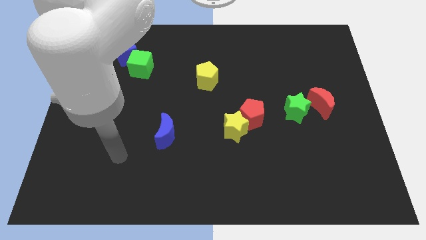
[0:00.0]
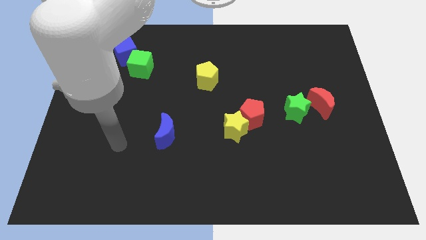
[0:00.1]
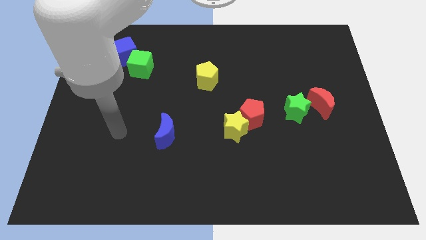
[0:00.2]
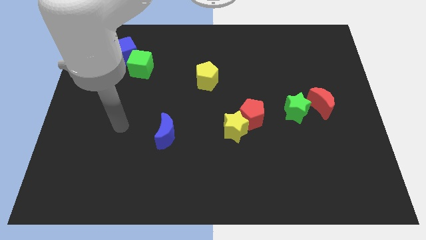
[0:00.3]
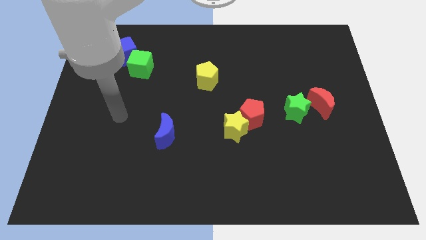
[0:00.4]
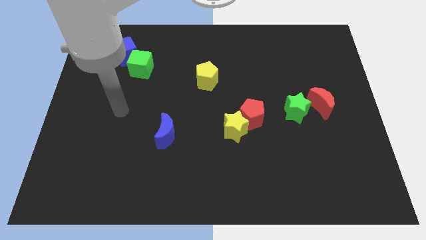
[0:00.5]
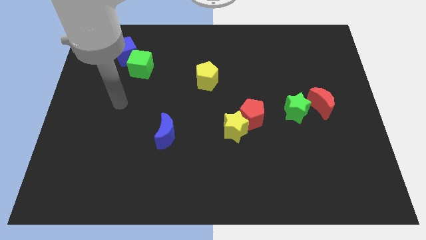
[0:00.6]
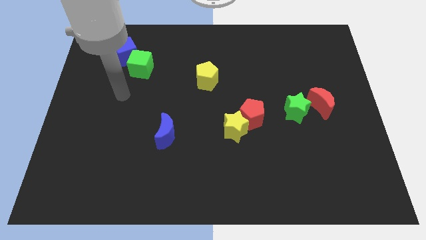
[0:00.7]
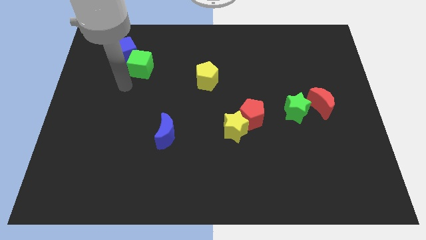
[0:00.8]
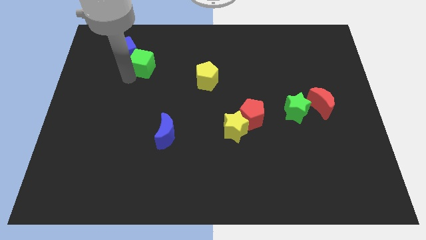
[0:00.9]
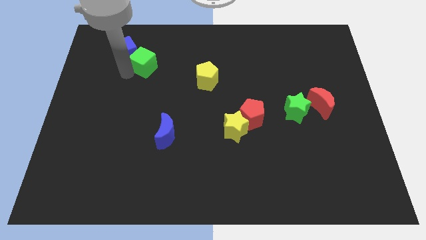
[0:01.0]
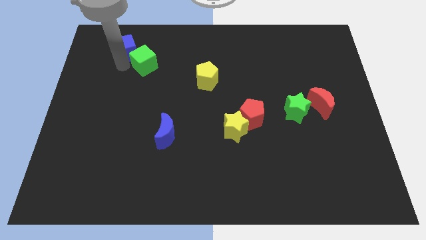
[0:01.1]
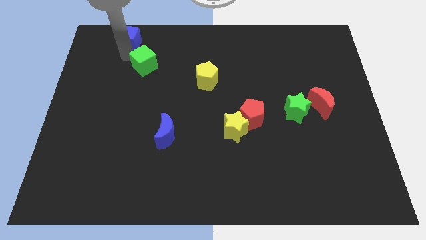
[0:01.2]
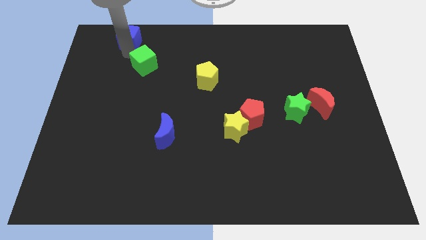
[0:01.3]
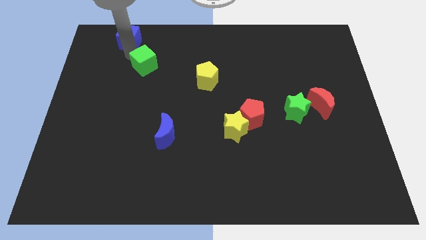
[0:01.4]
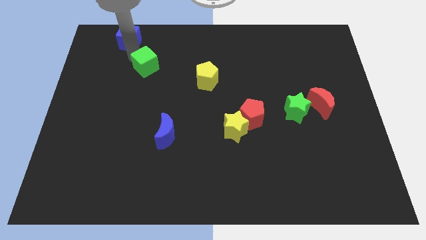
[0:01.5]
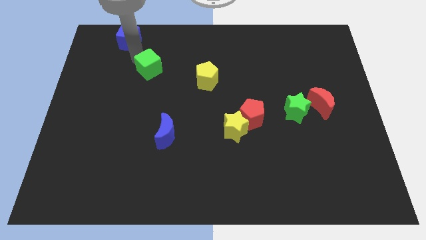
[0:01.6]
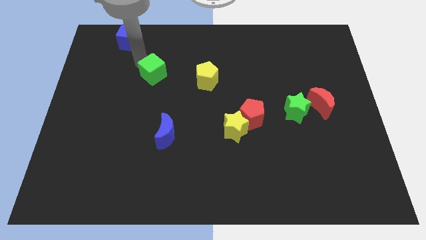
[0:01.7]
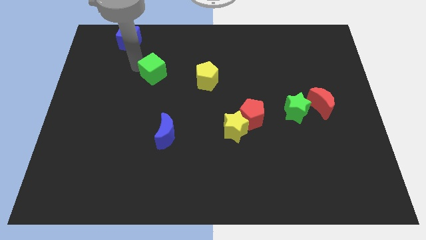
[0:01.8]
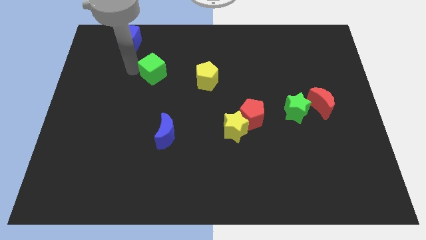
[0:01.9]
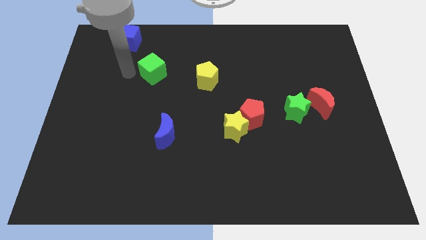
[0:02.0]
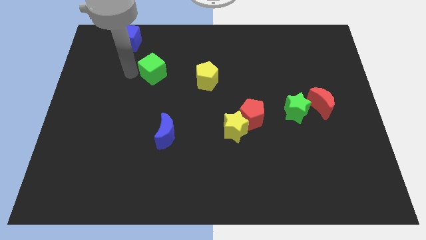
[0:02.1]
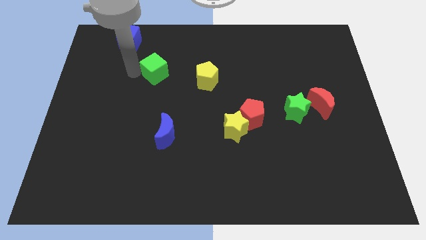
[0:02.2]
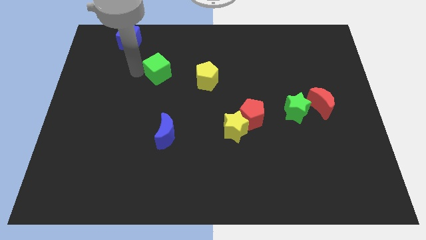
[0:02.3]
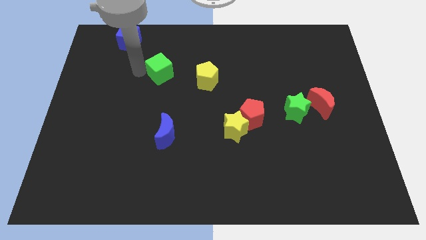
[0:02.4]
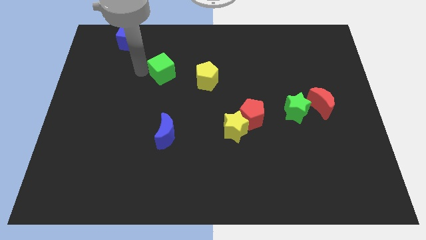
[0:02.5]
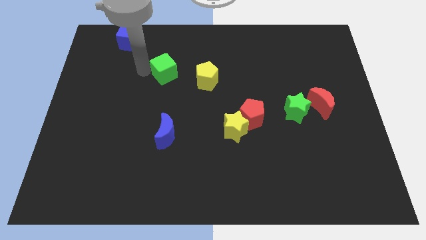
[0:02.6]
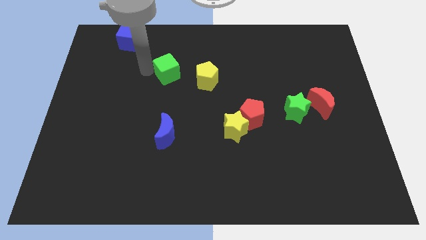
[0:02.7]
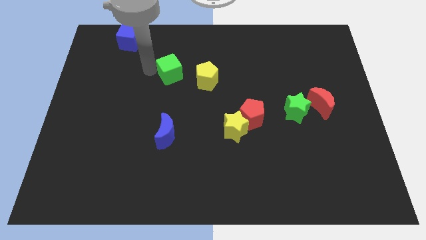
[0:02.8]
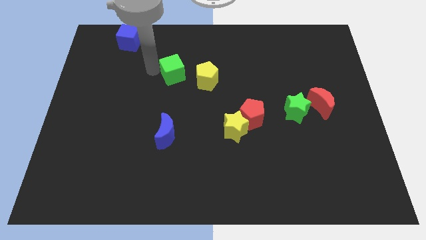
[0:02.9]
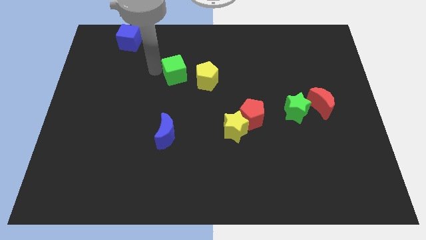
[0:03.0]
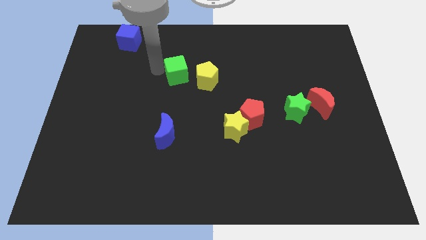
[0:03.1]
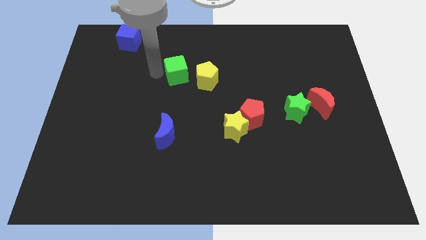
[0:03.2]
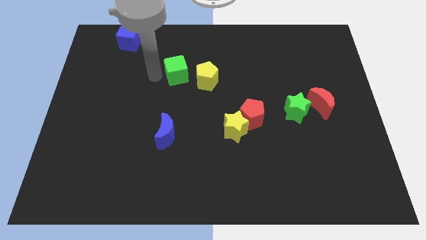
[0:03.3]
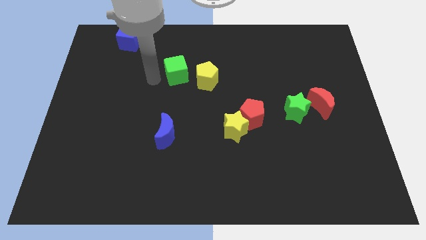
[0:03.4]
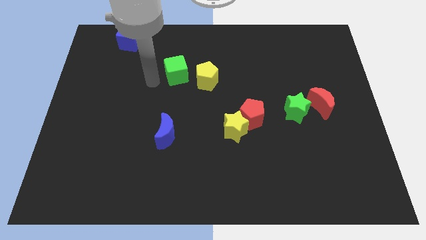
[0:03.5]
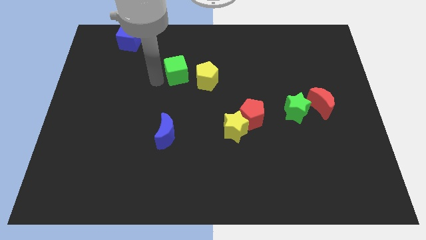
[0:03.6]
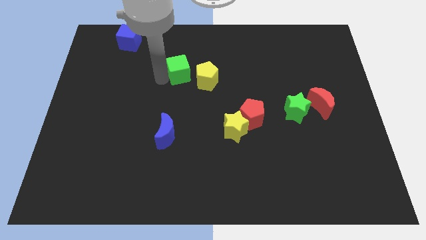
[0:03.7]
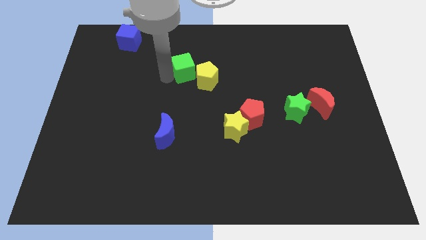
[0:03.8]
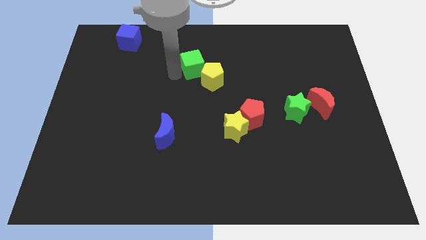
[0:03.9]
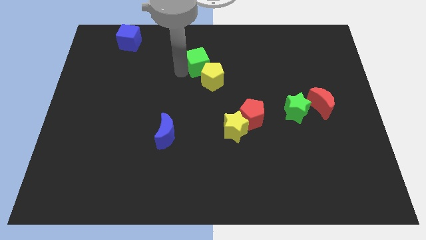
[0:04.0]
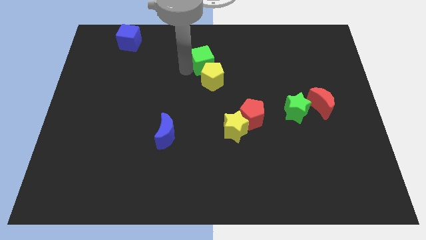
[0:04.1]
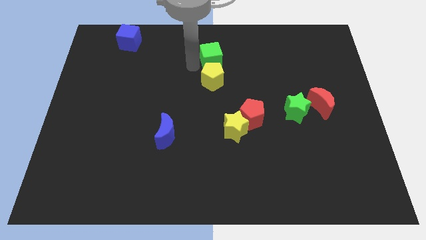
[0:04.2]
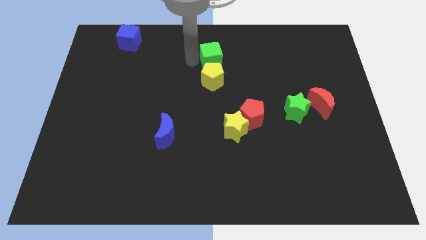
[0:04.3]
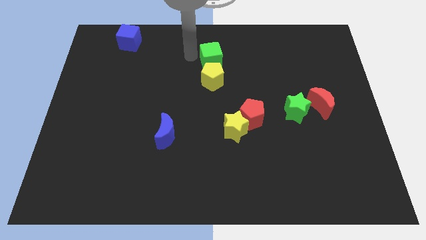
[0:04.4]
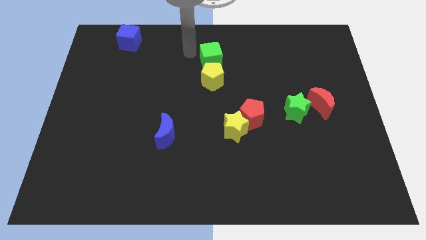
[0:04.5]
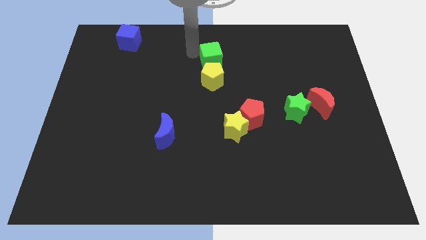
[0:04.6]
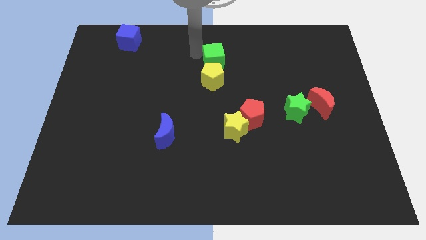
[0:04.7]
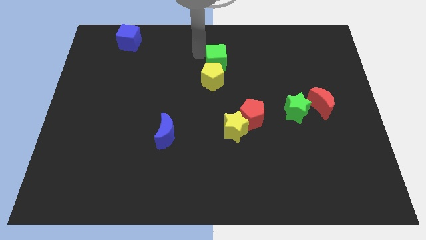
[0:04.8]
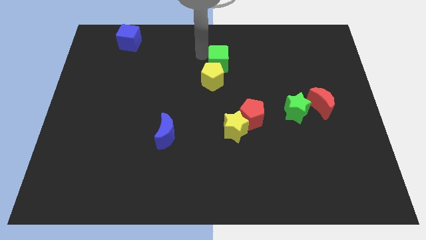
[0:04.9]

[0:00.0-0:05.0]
slide the green cube to the right

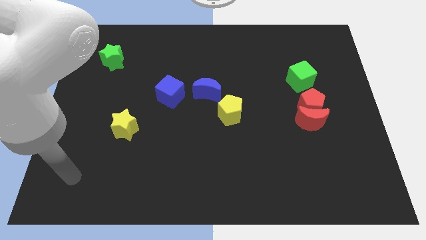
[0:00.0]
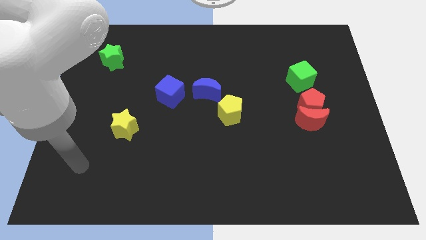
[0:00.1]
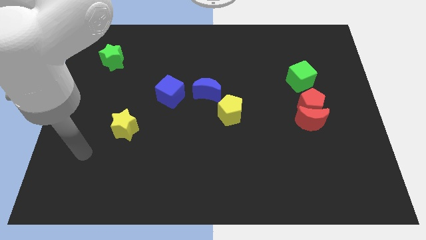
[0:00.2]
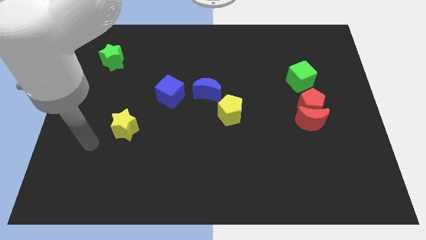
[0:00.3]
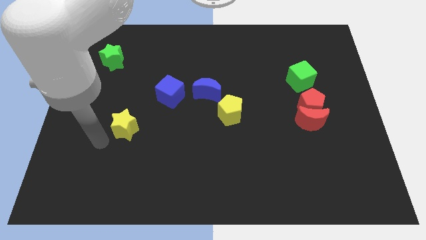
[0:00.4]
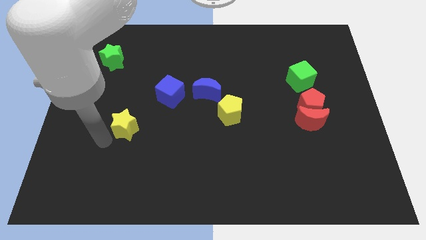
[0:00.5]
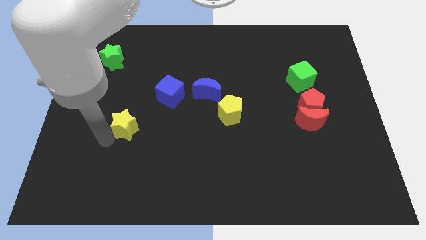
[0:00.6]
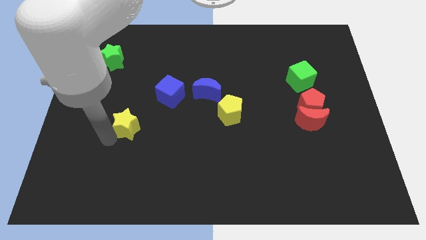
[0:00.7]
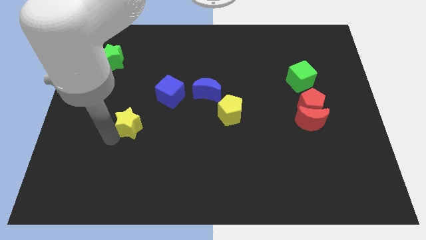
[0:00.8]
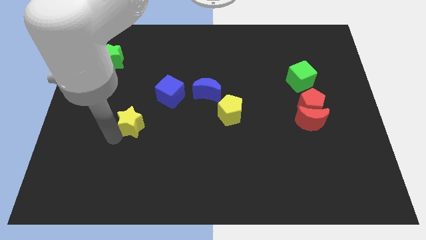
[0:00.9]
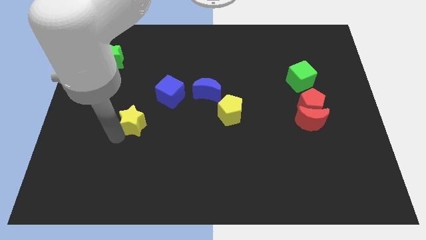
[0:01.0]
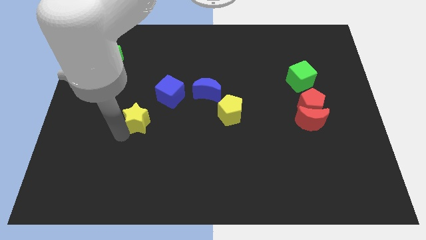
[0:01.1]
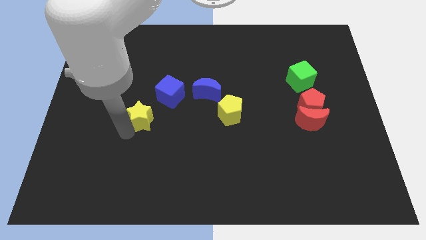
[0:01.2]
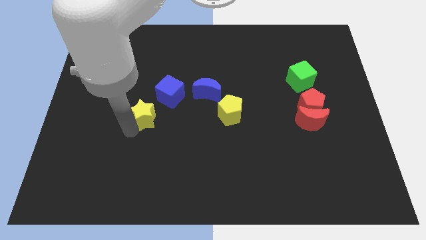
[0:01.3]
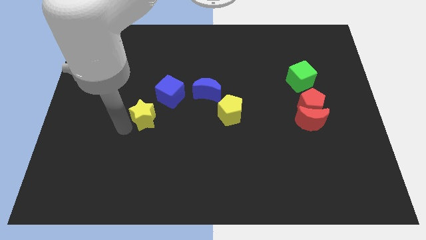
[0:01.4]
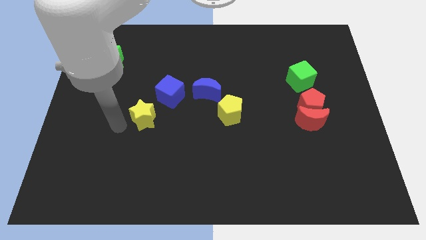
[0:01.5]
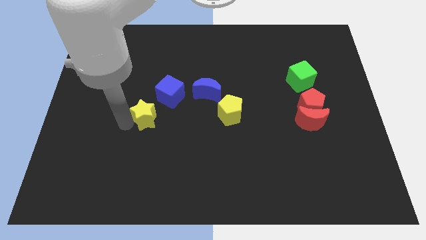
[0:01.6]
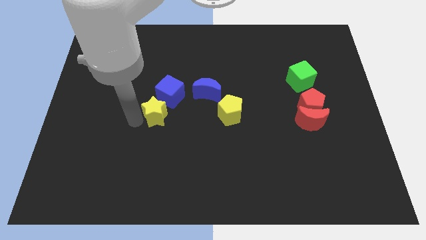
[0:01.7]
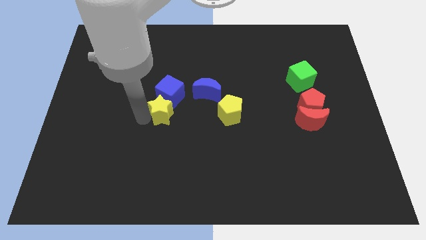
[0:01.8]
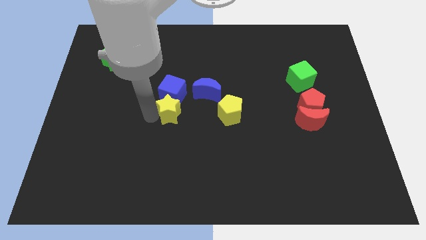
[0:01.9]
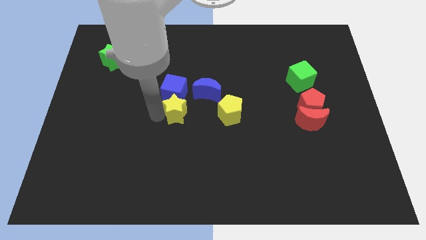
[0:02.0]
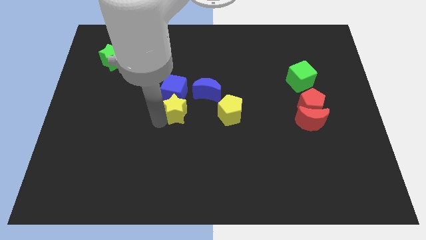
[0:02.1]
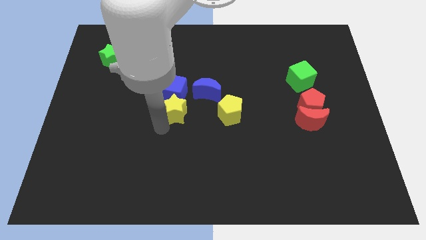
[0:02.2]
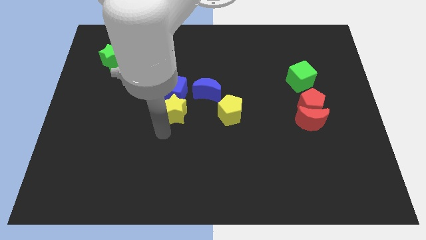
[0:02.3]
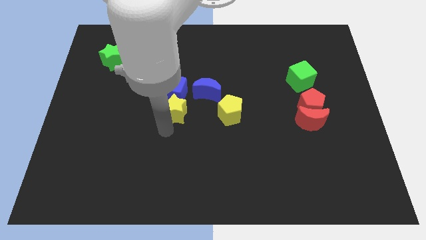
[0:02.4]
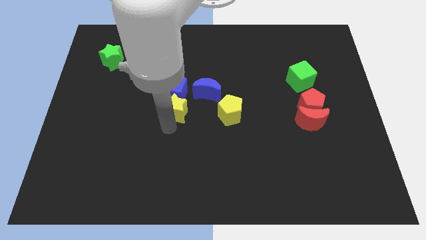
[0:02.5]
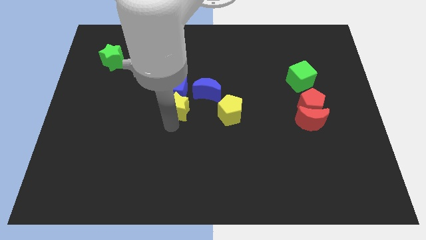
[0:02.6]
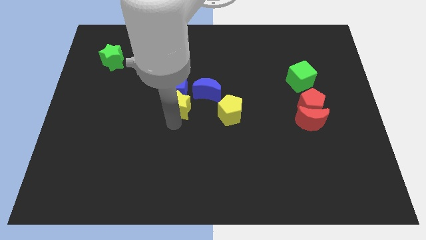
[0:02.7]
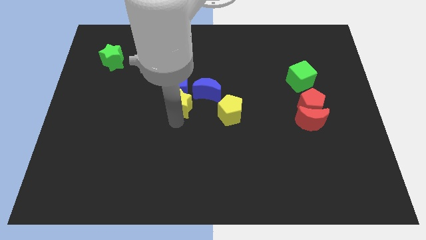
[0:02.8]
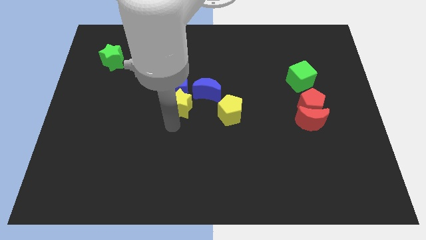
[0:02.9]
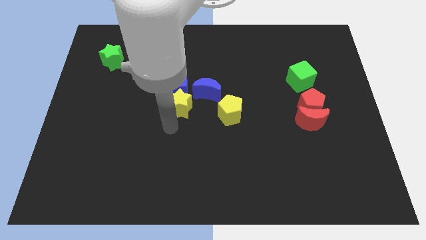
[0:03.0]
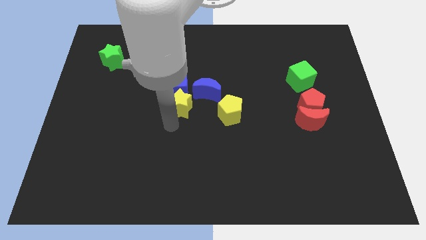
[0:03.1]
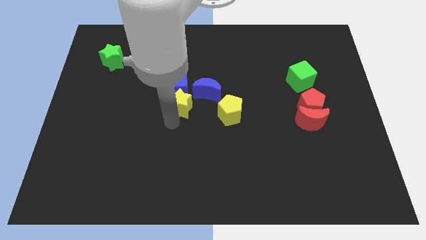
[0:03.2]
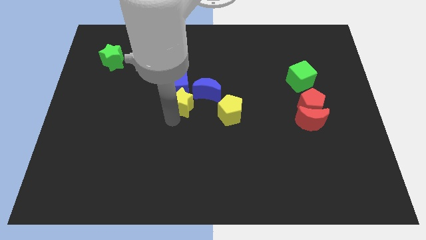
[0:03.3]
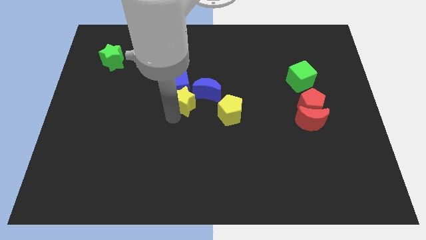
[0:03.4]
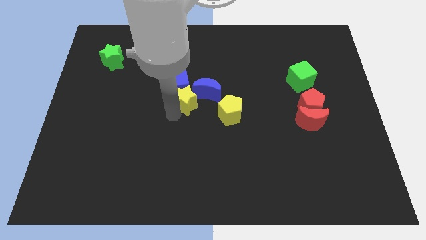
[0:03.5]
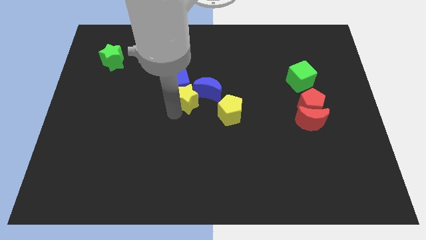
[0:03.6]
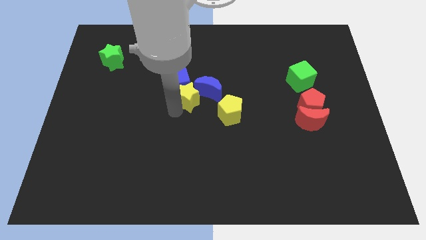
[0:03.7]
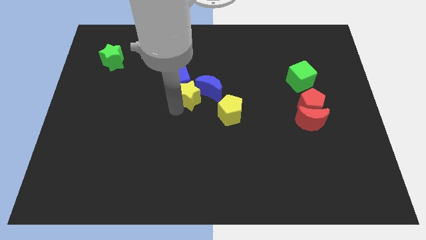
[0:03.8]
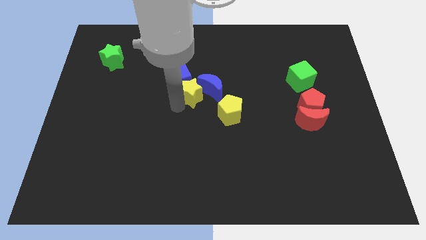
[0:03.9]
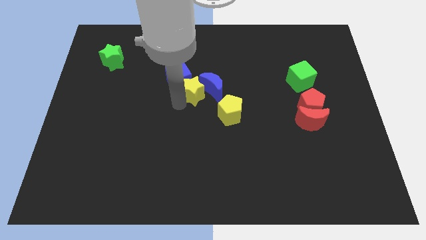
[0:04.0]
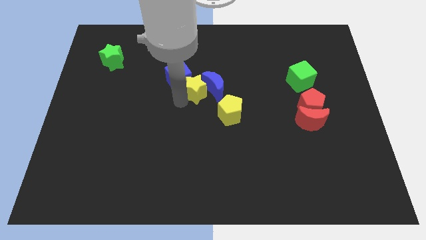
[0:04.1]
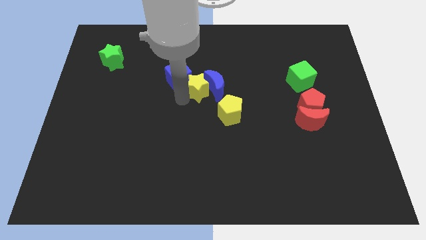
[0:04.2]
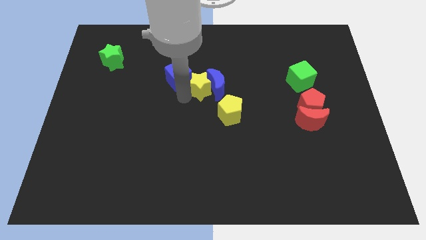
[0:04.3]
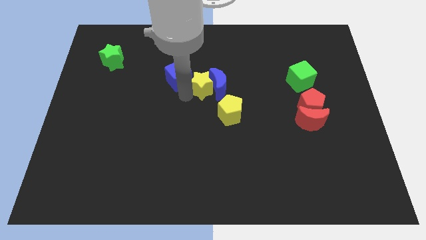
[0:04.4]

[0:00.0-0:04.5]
slide the yellow star diagonally upwards and to the right
